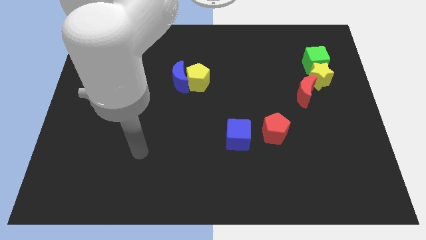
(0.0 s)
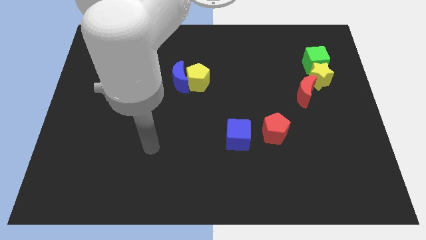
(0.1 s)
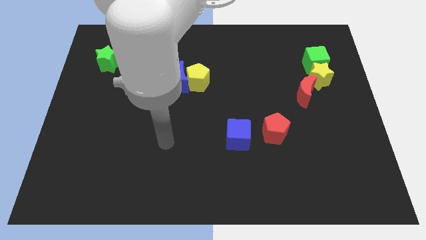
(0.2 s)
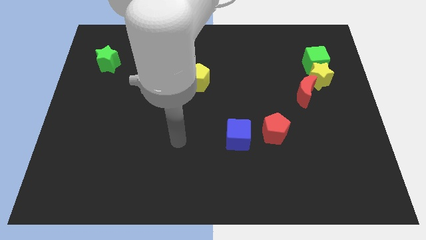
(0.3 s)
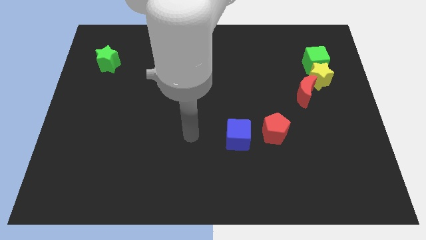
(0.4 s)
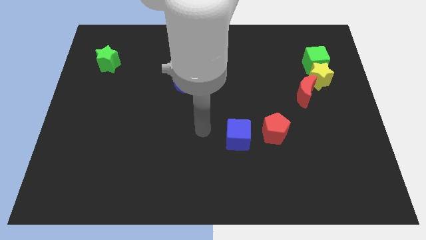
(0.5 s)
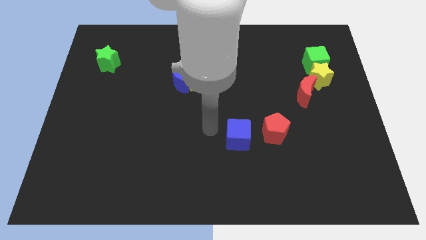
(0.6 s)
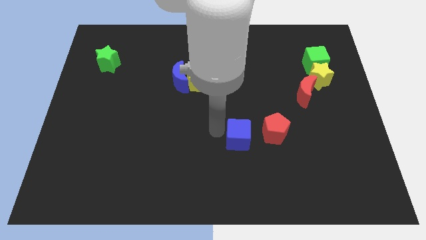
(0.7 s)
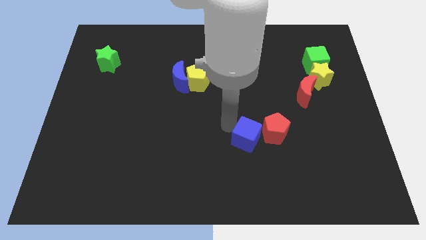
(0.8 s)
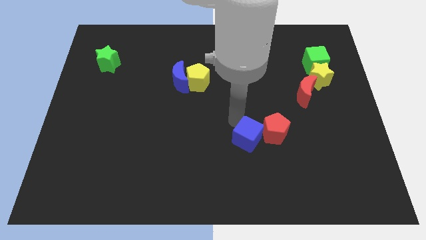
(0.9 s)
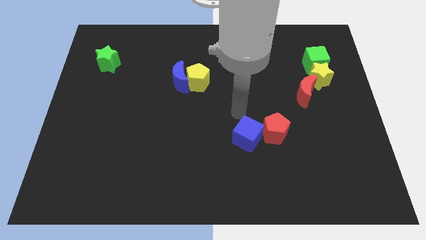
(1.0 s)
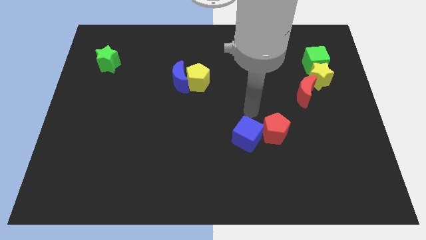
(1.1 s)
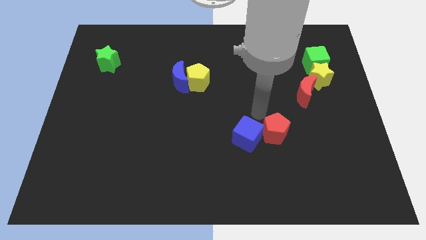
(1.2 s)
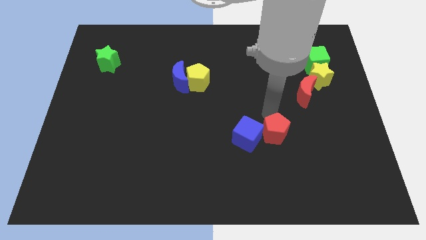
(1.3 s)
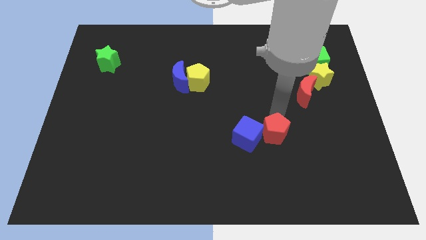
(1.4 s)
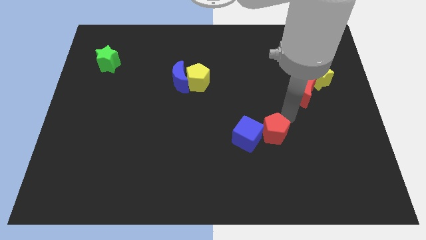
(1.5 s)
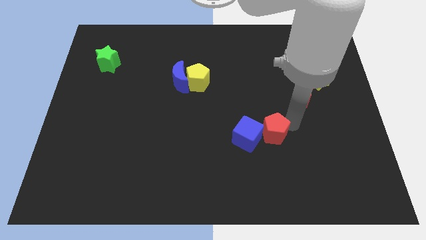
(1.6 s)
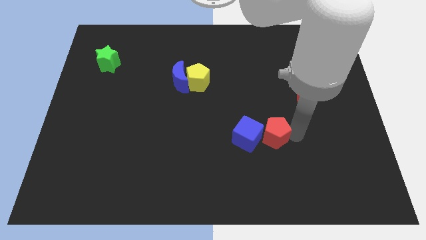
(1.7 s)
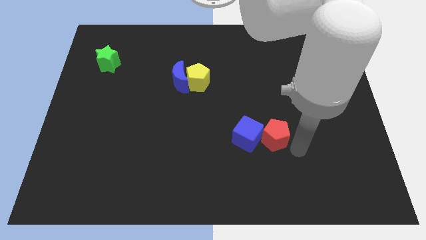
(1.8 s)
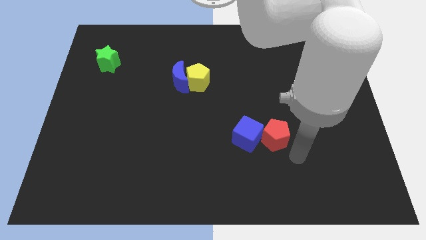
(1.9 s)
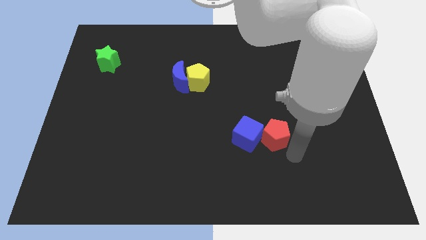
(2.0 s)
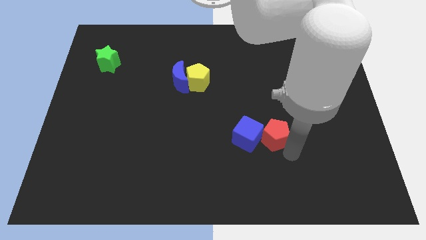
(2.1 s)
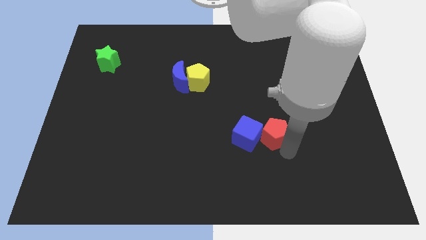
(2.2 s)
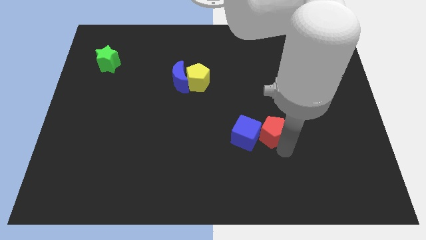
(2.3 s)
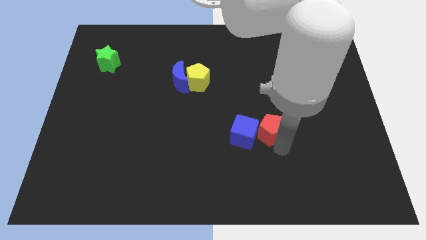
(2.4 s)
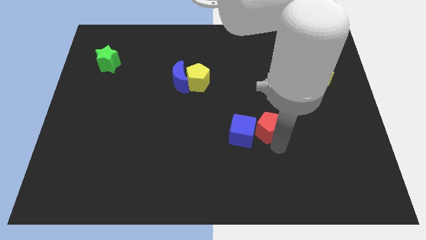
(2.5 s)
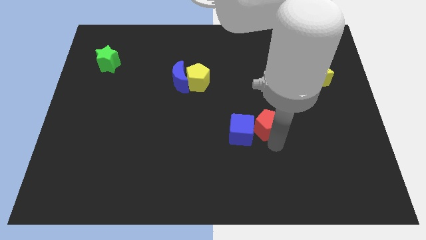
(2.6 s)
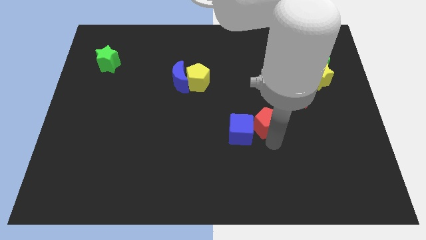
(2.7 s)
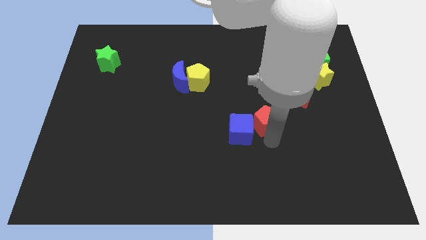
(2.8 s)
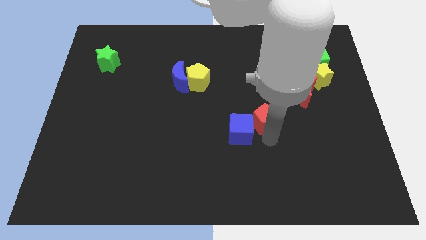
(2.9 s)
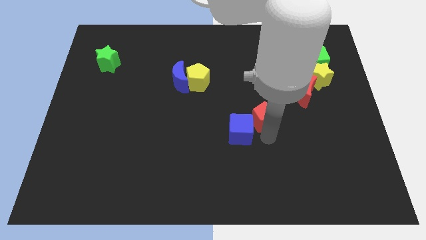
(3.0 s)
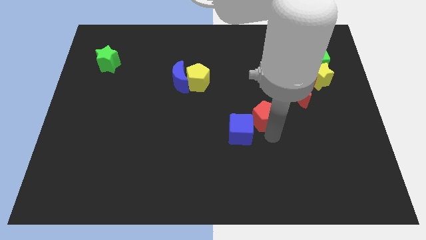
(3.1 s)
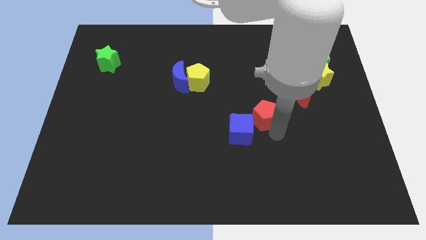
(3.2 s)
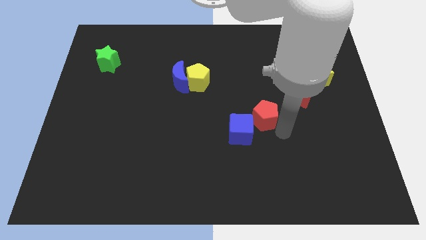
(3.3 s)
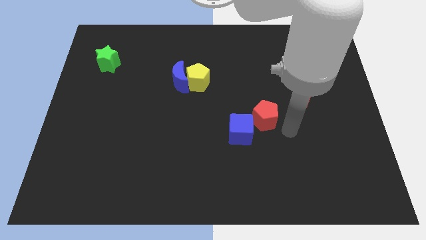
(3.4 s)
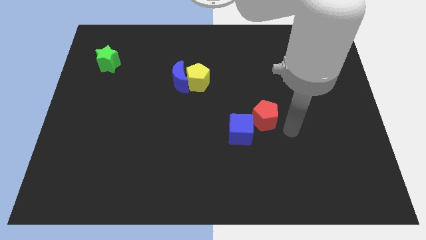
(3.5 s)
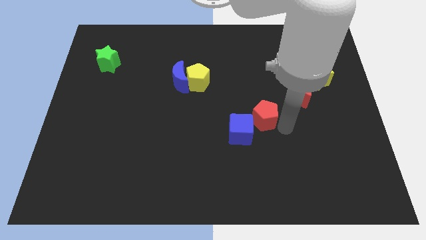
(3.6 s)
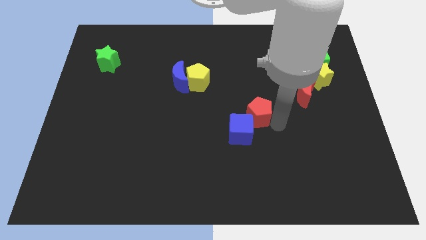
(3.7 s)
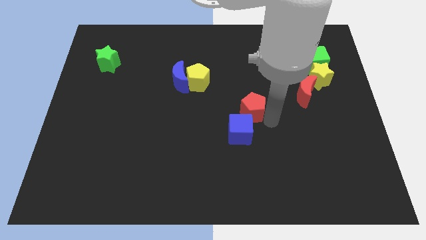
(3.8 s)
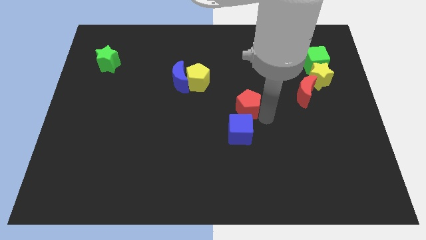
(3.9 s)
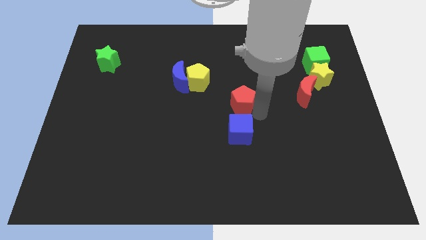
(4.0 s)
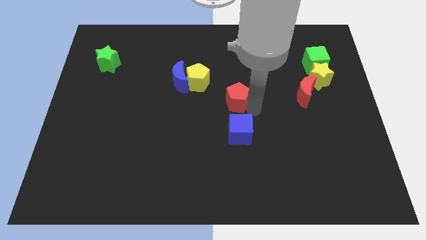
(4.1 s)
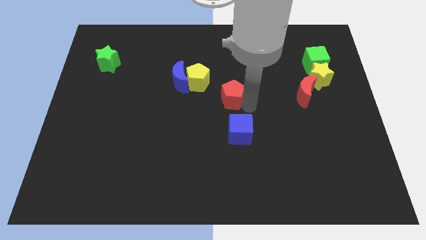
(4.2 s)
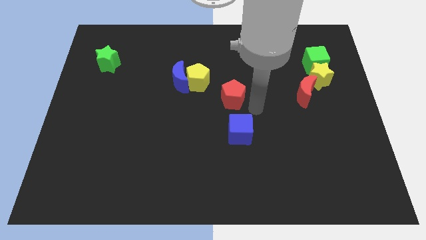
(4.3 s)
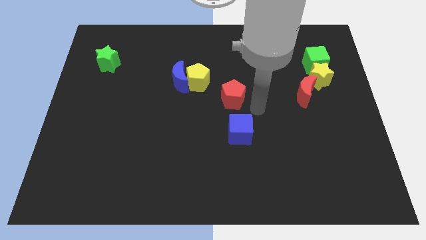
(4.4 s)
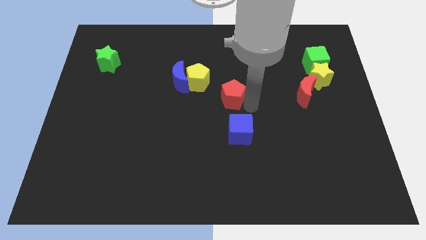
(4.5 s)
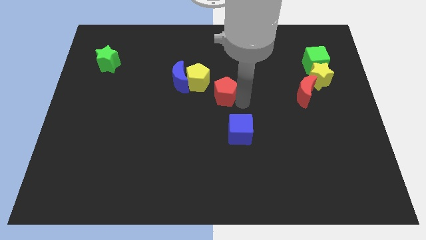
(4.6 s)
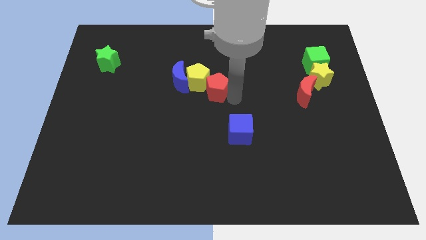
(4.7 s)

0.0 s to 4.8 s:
push the red pentagon towards the yellow pentagon

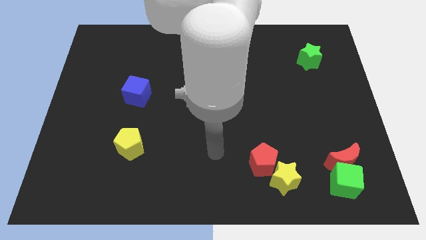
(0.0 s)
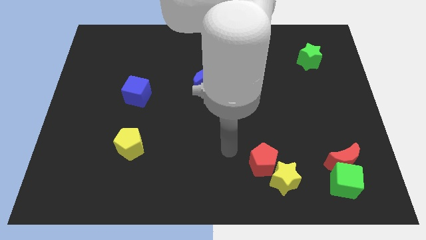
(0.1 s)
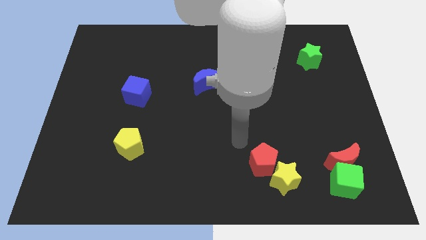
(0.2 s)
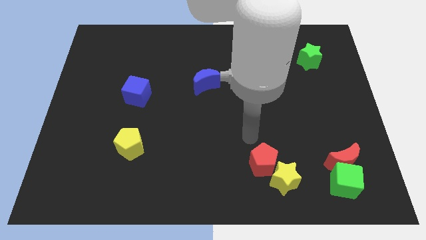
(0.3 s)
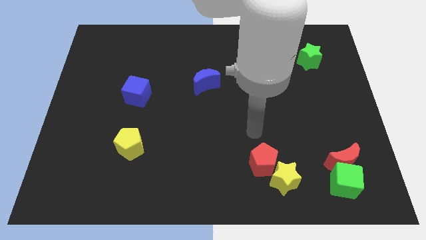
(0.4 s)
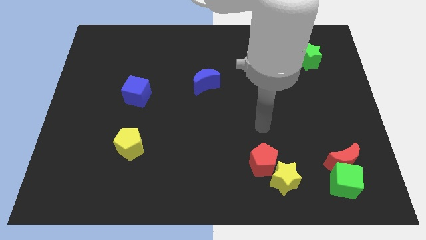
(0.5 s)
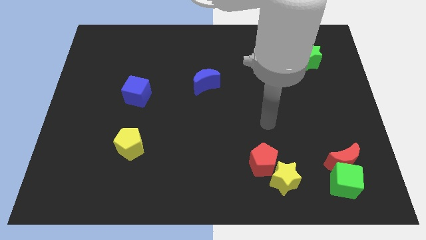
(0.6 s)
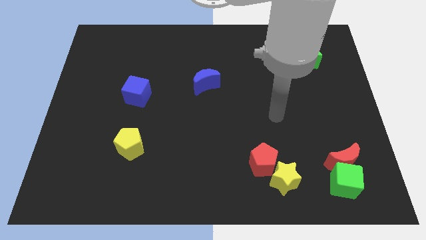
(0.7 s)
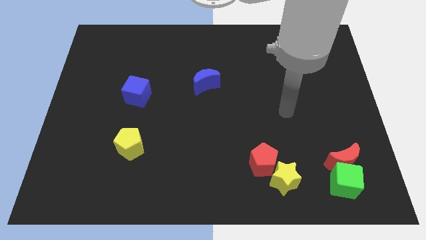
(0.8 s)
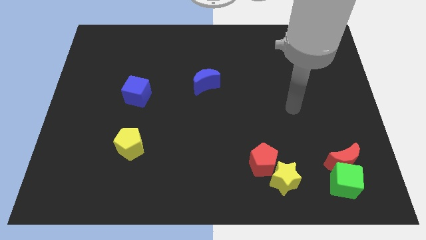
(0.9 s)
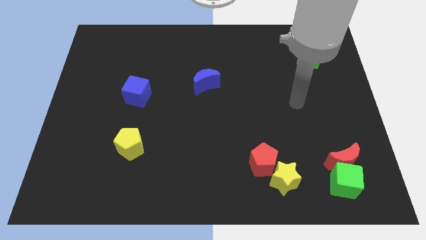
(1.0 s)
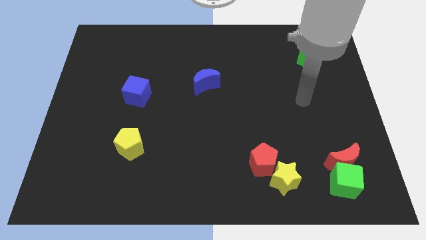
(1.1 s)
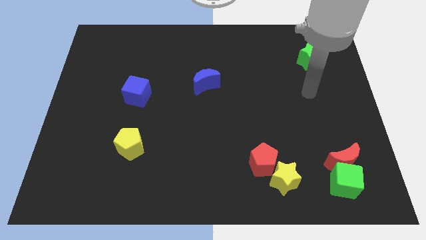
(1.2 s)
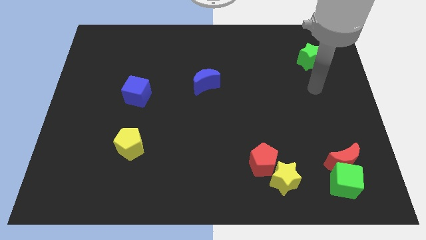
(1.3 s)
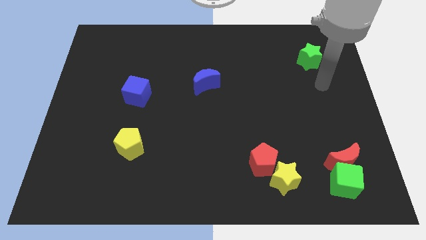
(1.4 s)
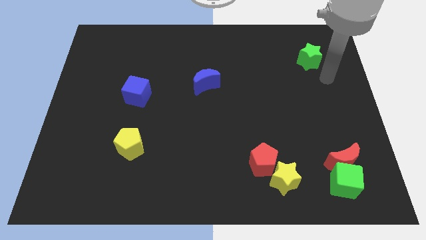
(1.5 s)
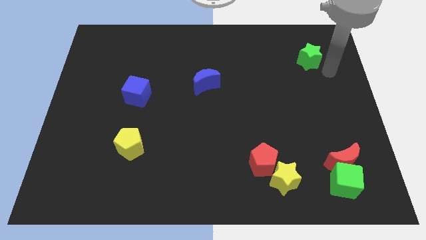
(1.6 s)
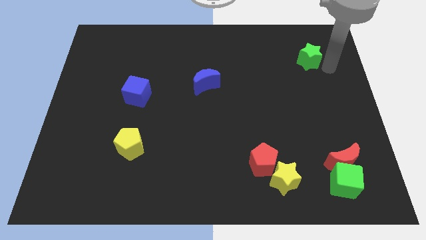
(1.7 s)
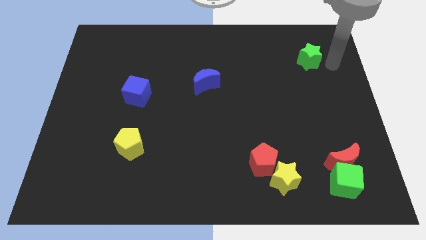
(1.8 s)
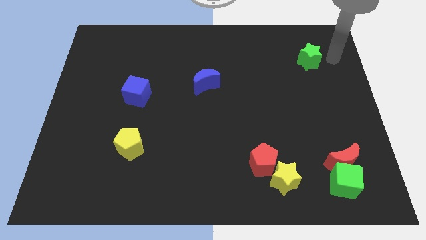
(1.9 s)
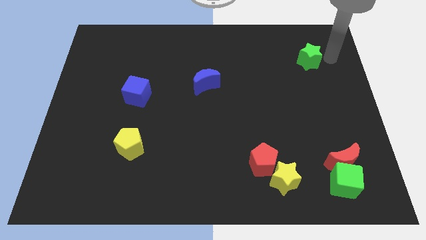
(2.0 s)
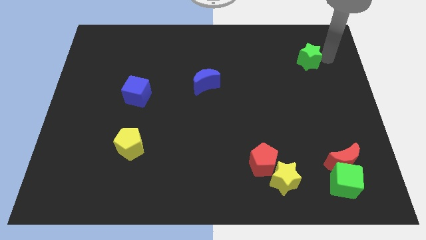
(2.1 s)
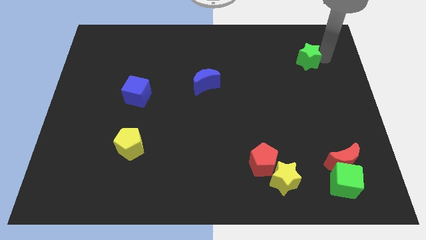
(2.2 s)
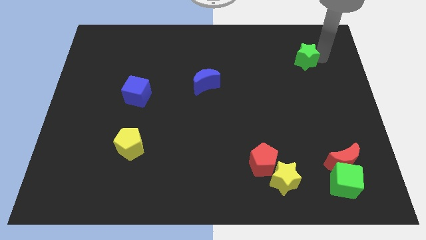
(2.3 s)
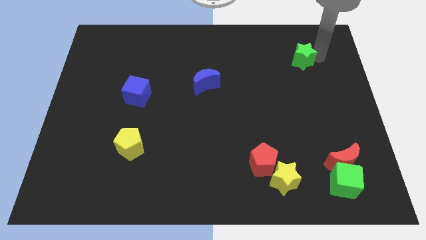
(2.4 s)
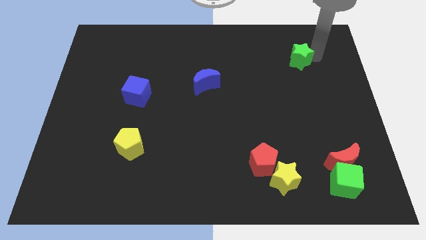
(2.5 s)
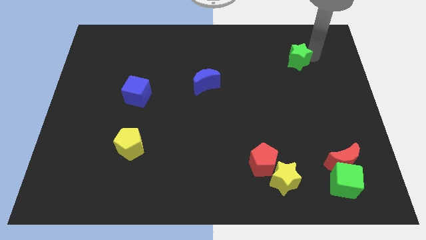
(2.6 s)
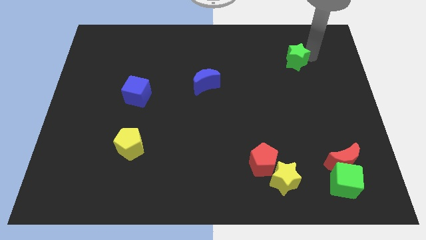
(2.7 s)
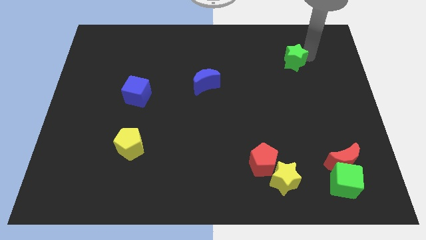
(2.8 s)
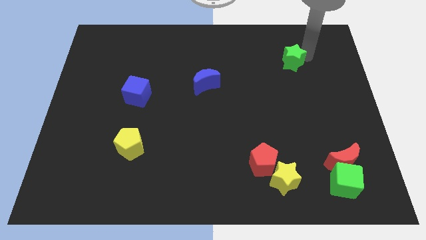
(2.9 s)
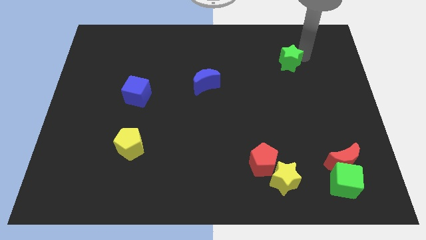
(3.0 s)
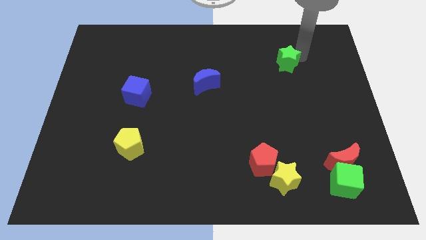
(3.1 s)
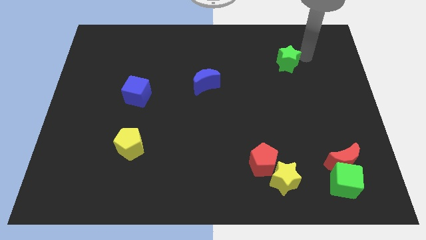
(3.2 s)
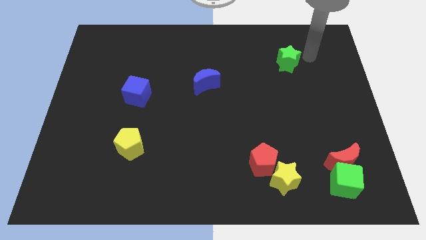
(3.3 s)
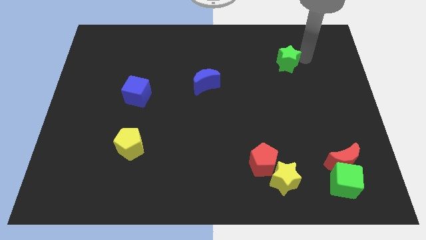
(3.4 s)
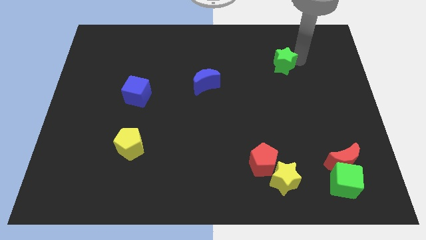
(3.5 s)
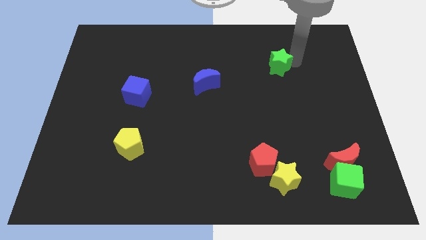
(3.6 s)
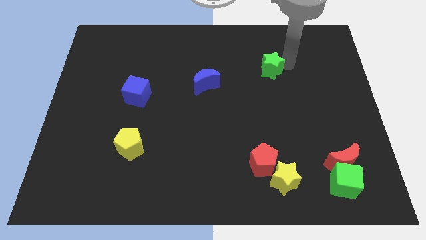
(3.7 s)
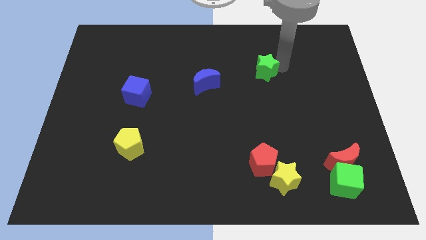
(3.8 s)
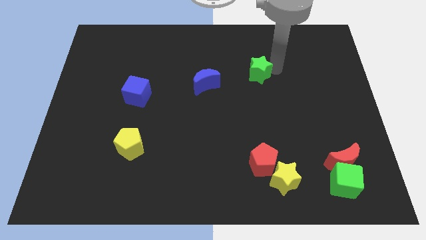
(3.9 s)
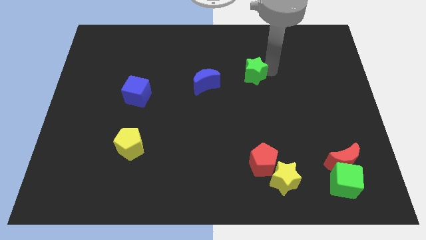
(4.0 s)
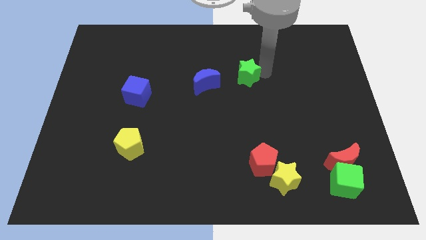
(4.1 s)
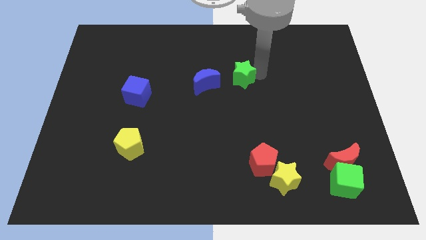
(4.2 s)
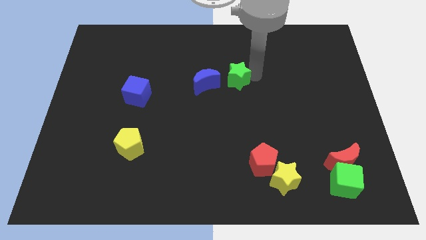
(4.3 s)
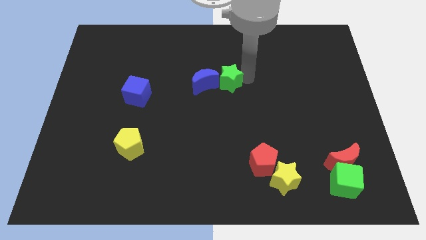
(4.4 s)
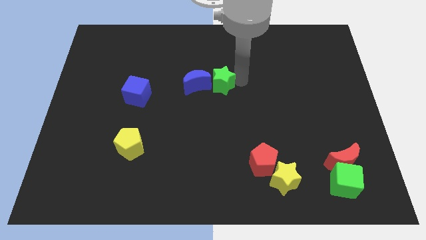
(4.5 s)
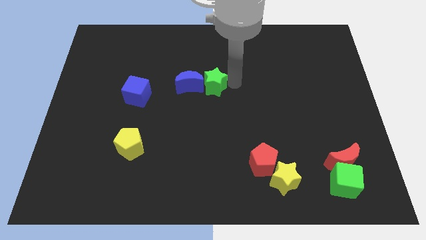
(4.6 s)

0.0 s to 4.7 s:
move the green star towards the blue moon
